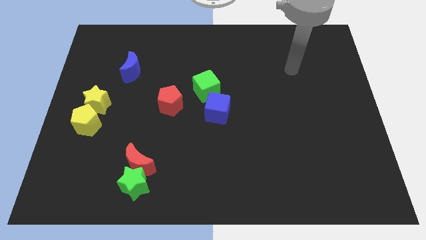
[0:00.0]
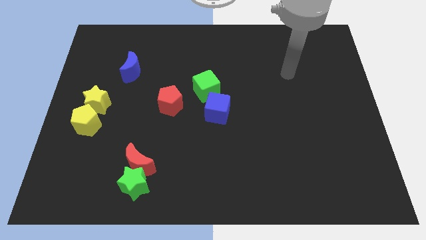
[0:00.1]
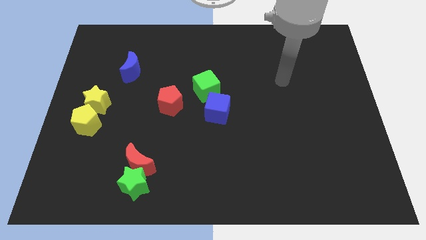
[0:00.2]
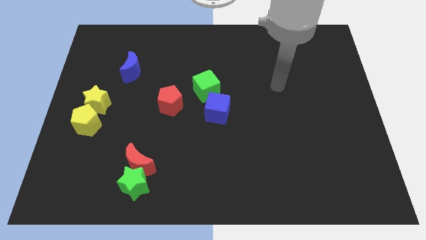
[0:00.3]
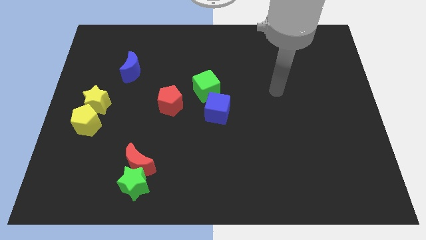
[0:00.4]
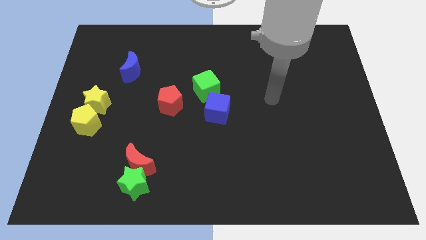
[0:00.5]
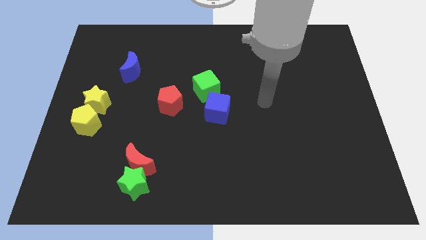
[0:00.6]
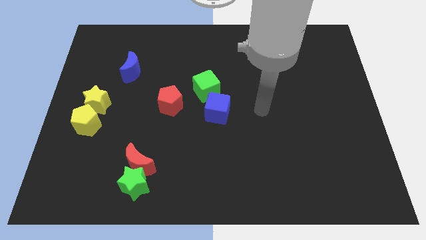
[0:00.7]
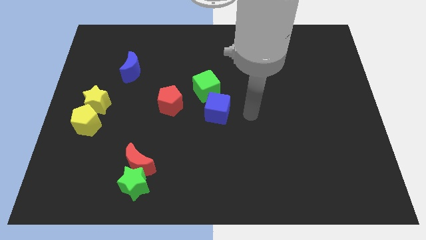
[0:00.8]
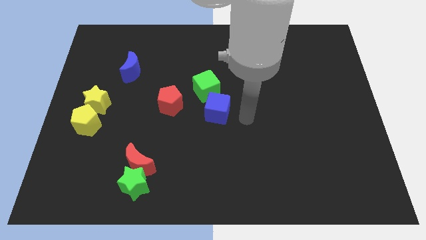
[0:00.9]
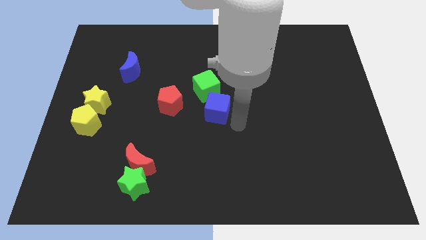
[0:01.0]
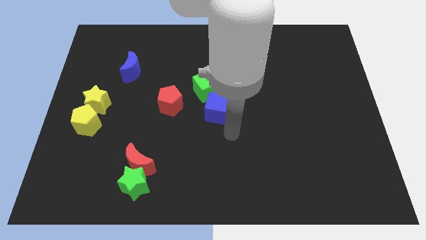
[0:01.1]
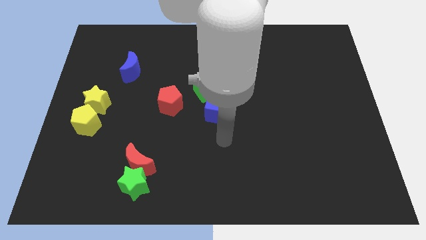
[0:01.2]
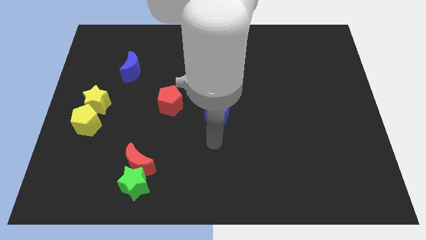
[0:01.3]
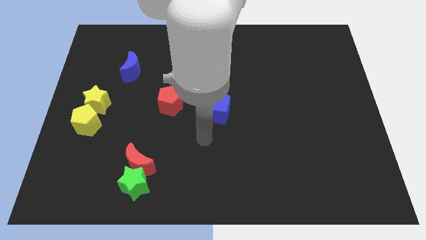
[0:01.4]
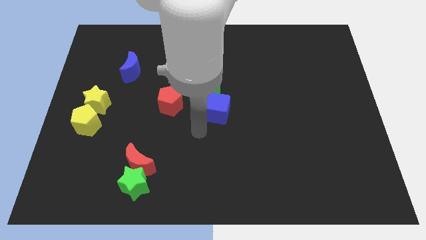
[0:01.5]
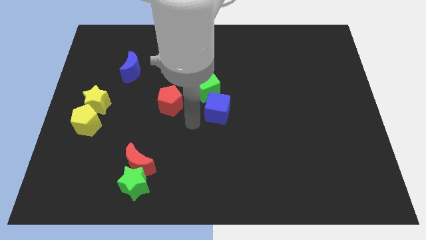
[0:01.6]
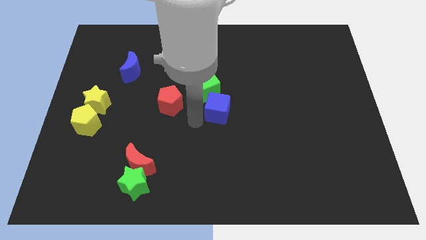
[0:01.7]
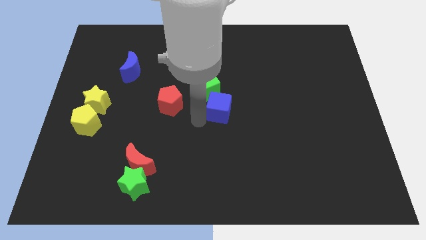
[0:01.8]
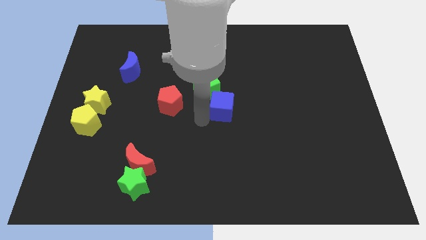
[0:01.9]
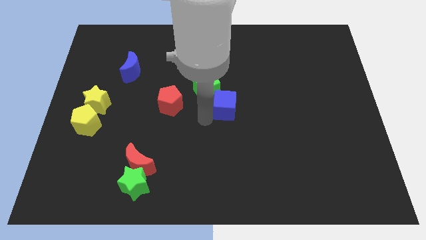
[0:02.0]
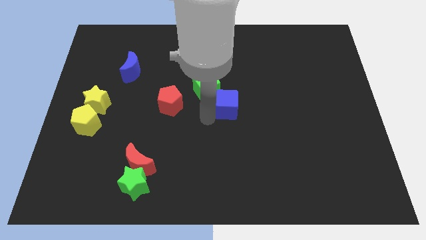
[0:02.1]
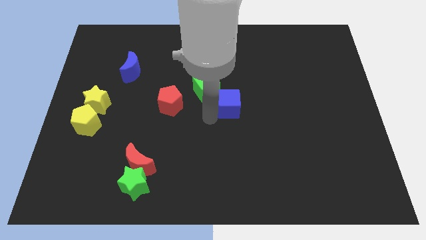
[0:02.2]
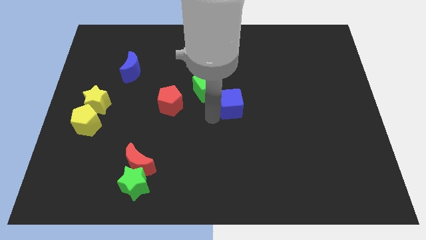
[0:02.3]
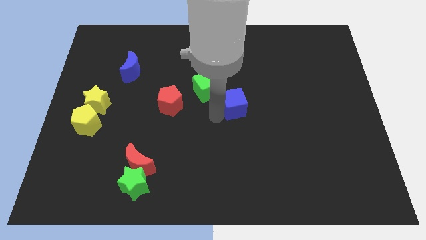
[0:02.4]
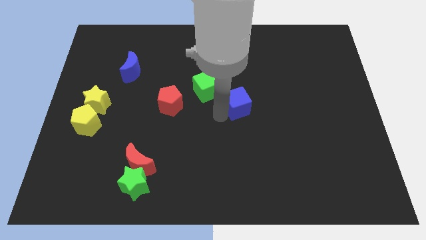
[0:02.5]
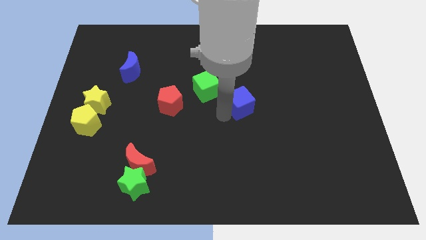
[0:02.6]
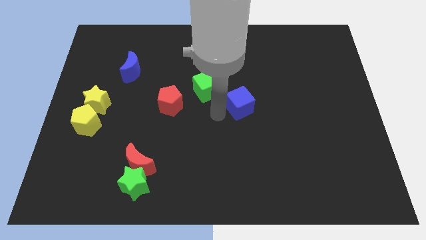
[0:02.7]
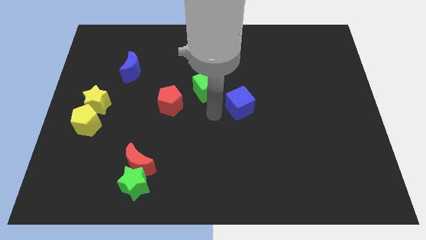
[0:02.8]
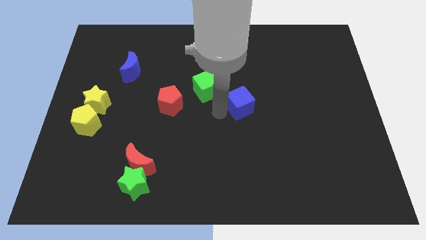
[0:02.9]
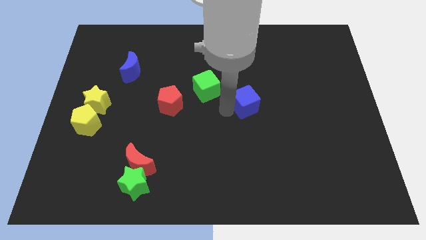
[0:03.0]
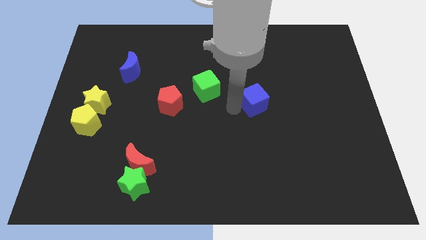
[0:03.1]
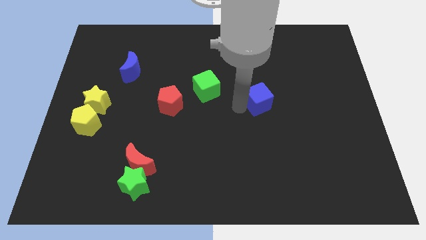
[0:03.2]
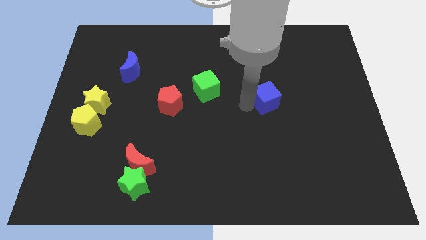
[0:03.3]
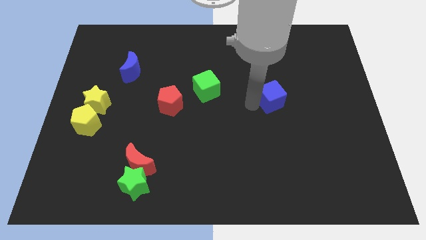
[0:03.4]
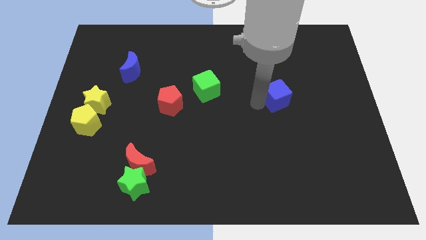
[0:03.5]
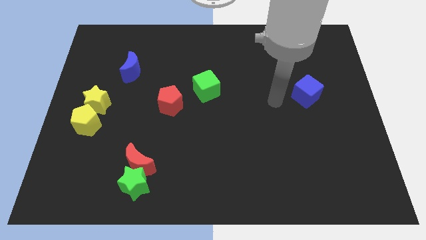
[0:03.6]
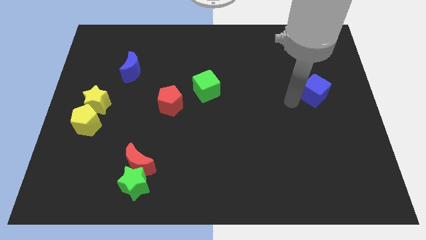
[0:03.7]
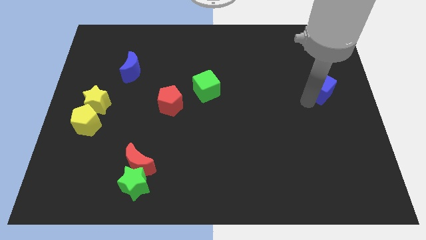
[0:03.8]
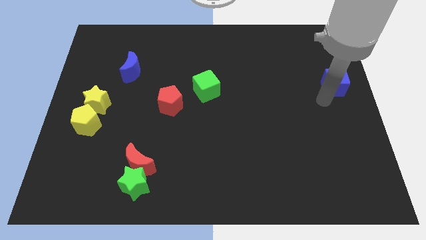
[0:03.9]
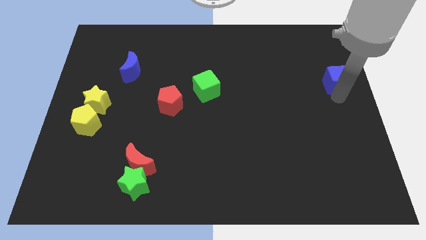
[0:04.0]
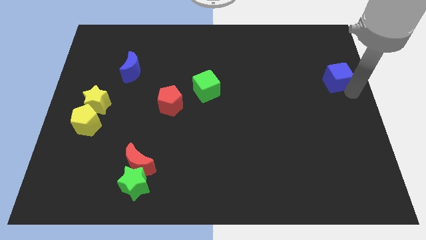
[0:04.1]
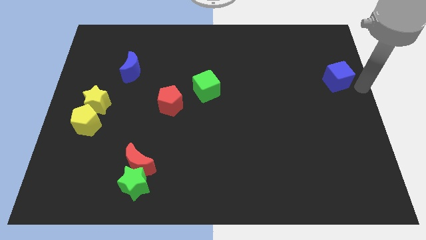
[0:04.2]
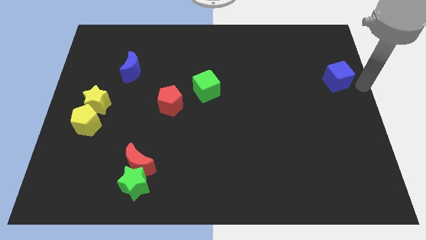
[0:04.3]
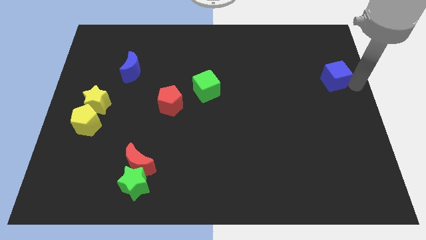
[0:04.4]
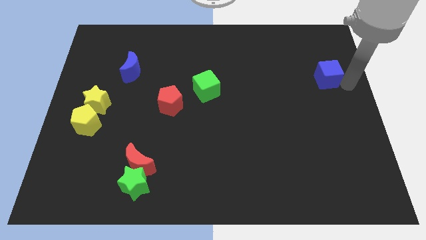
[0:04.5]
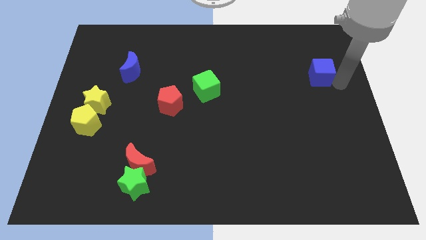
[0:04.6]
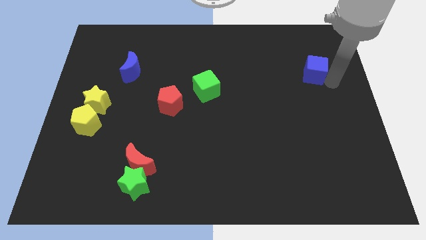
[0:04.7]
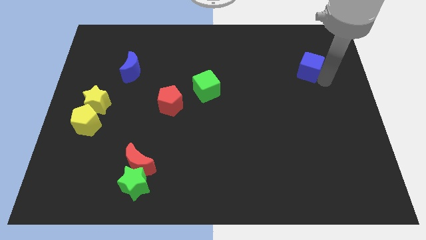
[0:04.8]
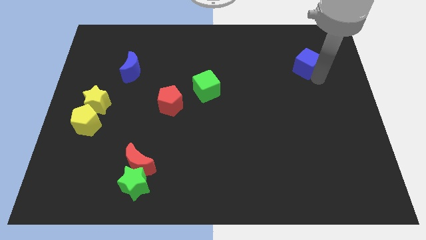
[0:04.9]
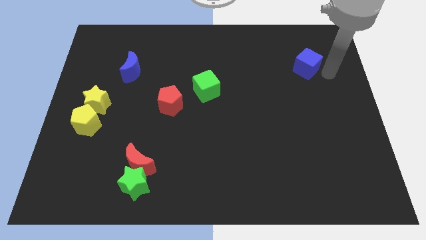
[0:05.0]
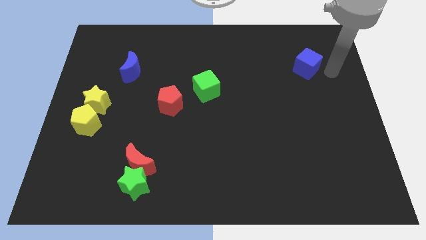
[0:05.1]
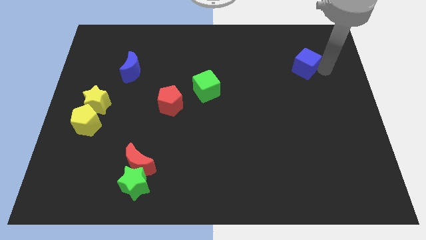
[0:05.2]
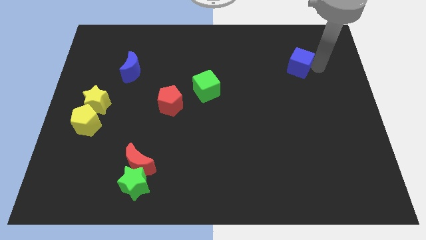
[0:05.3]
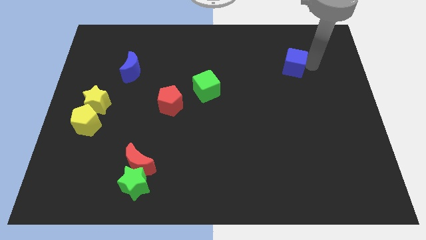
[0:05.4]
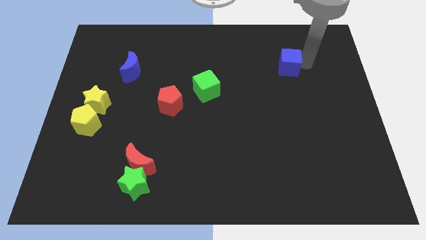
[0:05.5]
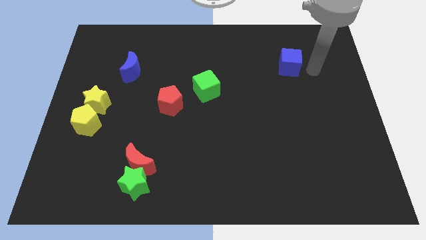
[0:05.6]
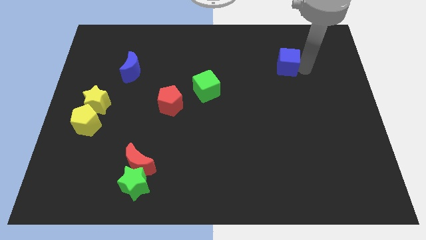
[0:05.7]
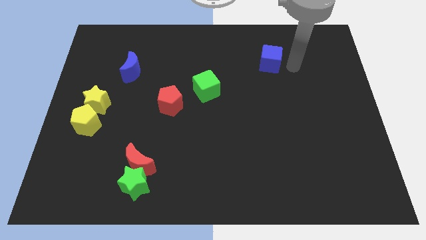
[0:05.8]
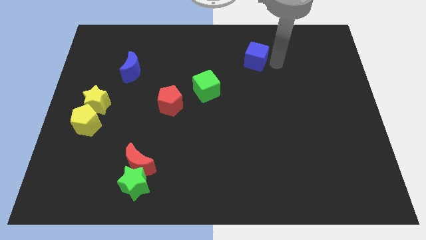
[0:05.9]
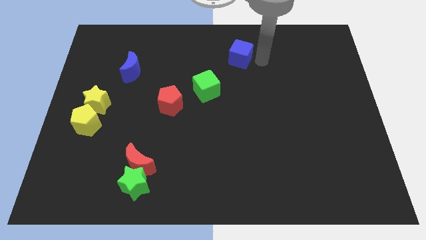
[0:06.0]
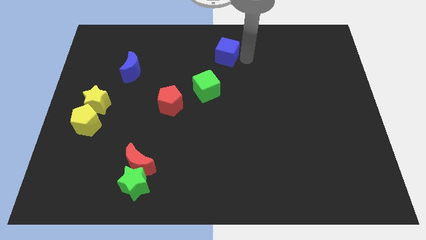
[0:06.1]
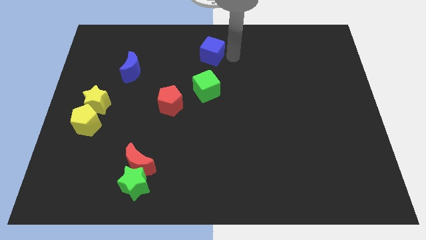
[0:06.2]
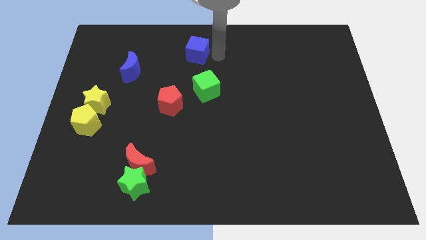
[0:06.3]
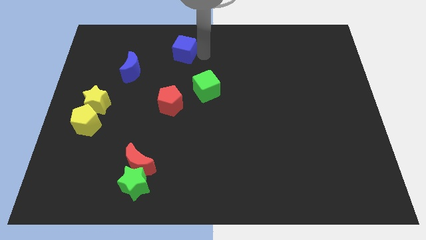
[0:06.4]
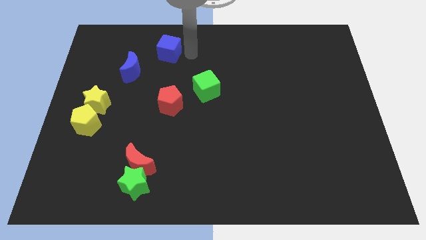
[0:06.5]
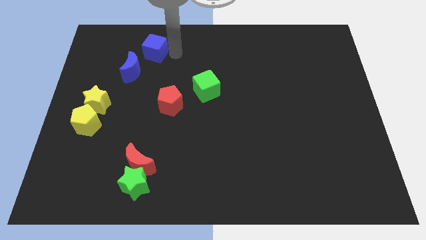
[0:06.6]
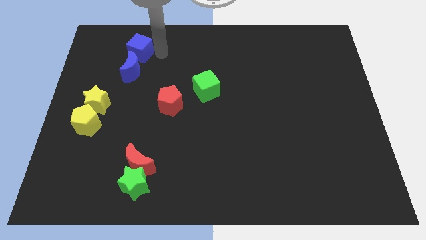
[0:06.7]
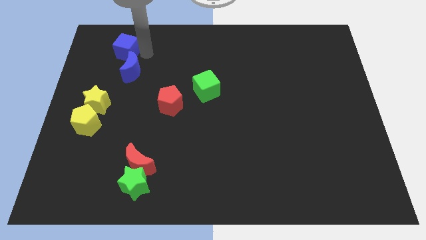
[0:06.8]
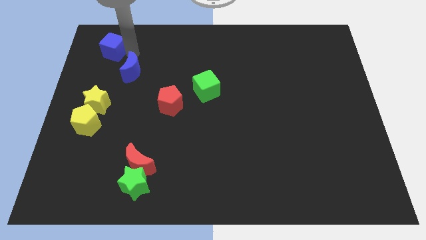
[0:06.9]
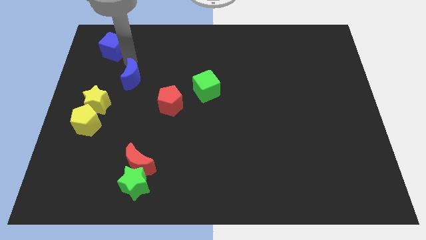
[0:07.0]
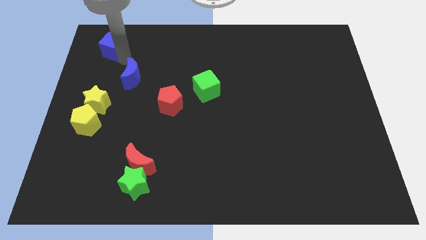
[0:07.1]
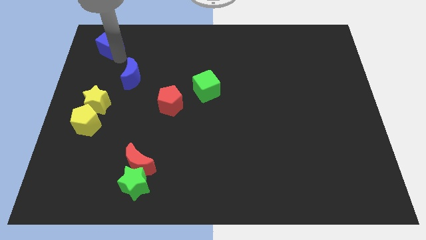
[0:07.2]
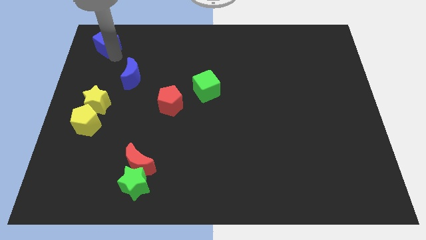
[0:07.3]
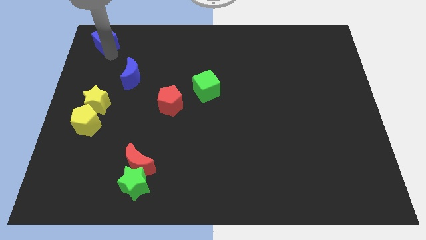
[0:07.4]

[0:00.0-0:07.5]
push the blue cube to the top left of the board
